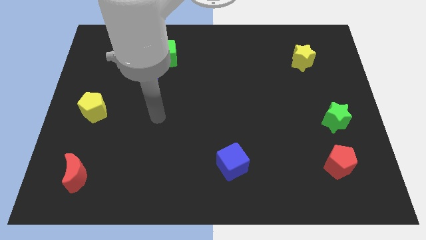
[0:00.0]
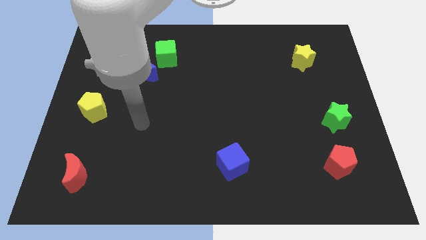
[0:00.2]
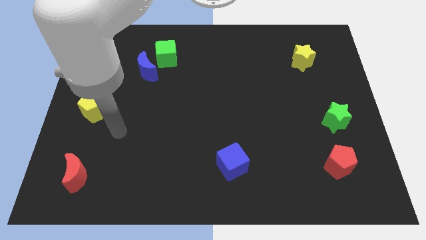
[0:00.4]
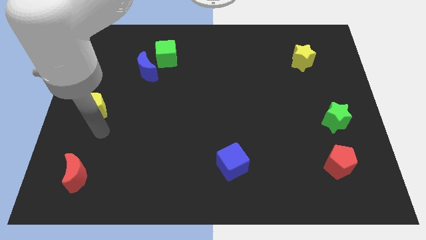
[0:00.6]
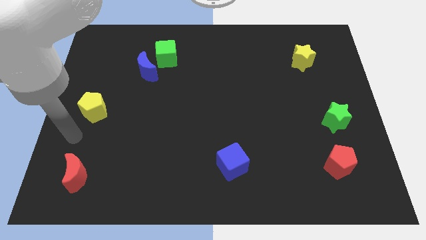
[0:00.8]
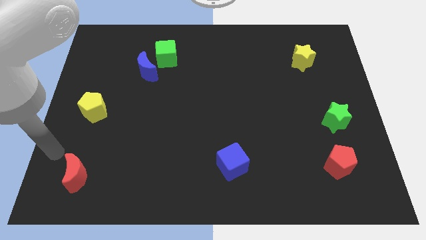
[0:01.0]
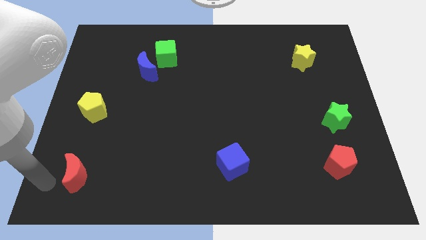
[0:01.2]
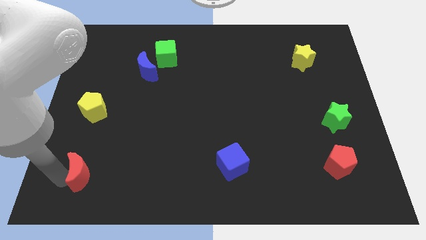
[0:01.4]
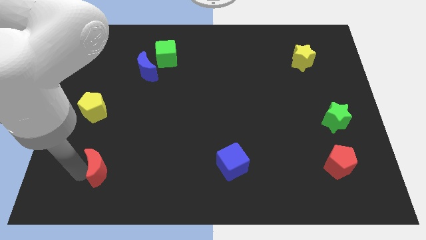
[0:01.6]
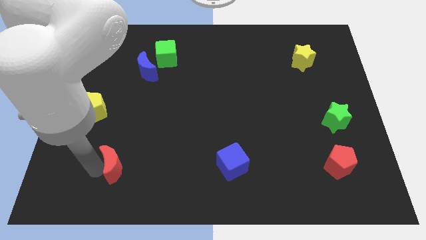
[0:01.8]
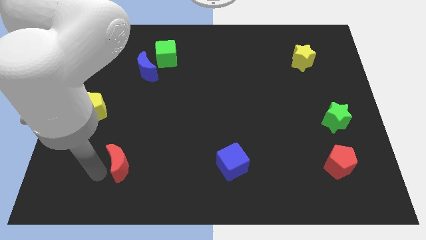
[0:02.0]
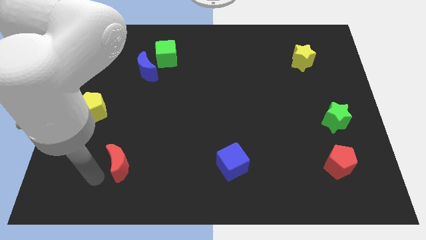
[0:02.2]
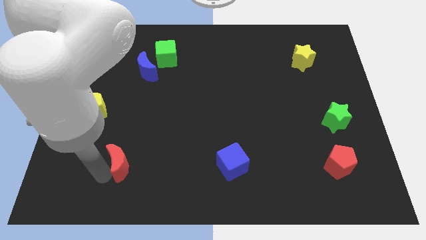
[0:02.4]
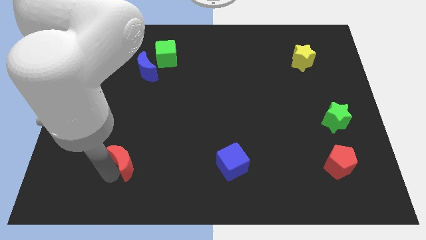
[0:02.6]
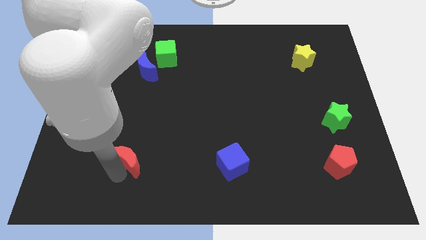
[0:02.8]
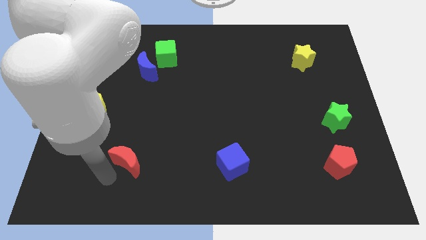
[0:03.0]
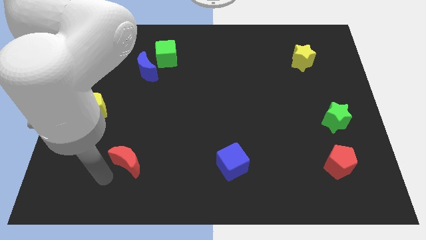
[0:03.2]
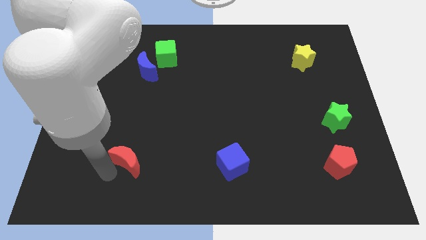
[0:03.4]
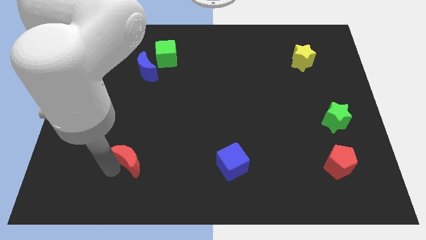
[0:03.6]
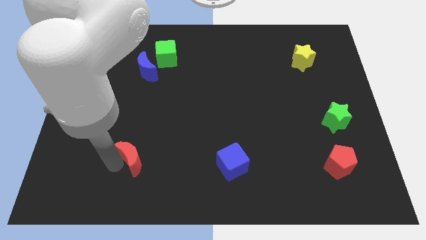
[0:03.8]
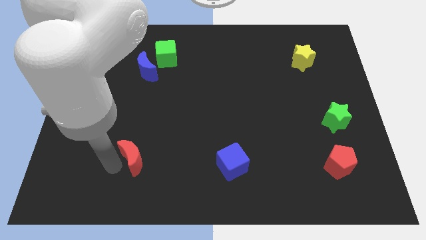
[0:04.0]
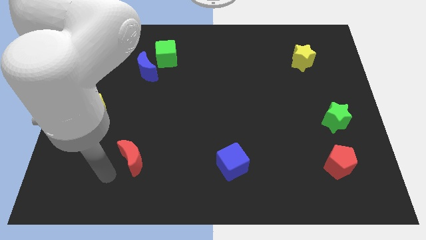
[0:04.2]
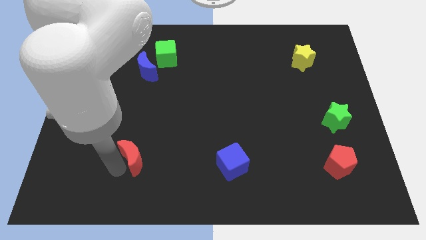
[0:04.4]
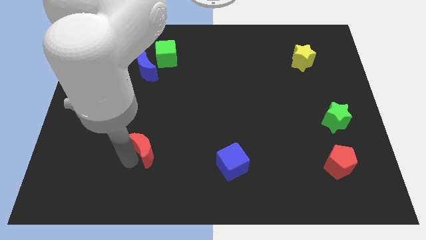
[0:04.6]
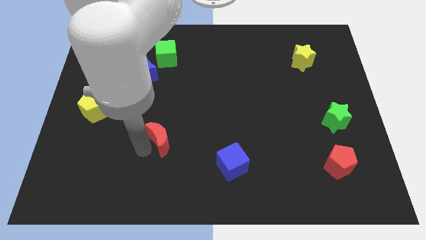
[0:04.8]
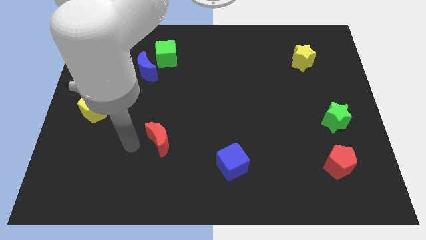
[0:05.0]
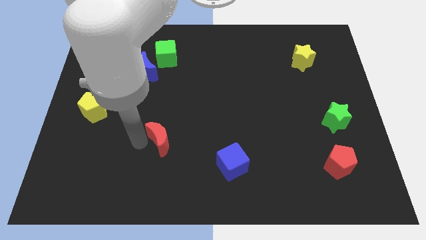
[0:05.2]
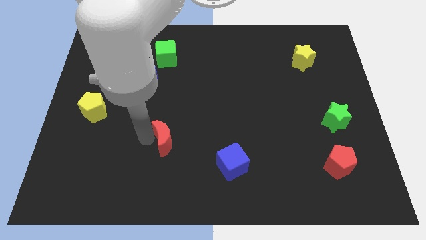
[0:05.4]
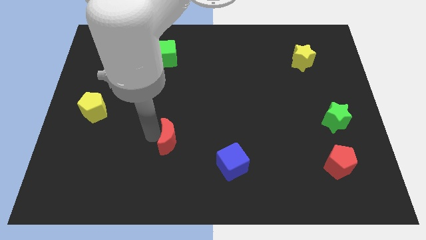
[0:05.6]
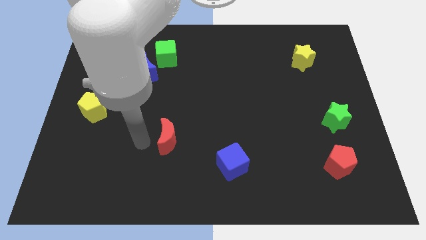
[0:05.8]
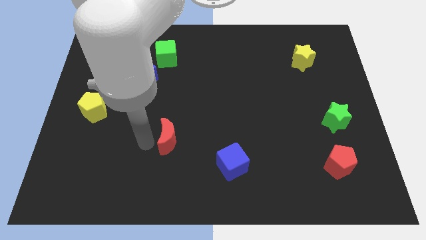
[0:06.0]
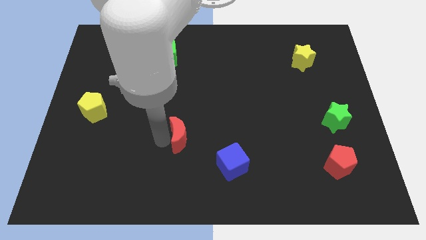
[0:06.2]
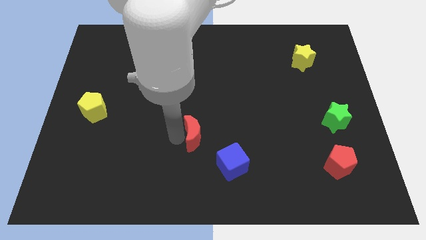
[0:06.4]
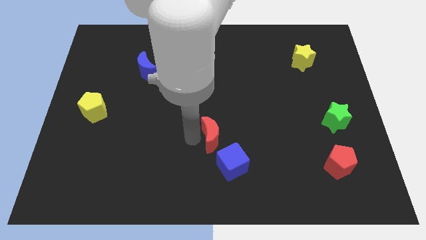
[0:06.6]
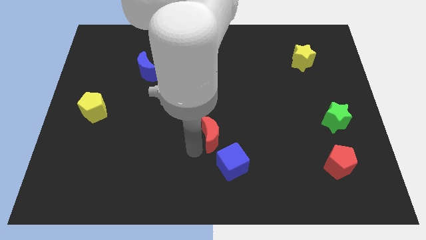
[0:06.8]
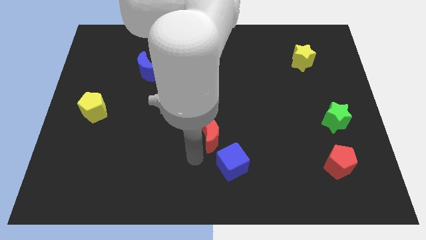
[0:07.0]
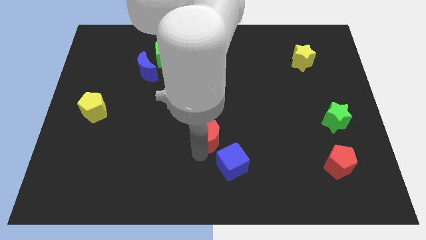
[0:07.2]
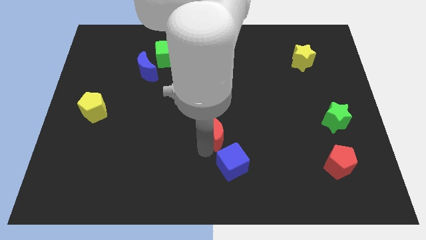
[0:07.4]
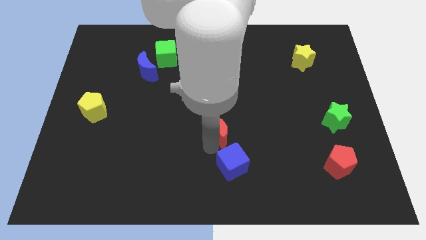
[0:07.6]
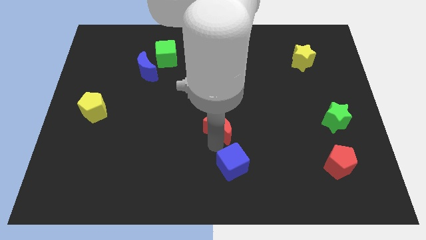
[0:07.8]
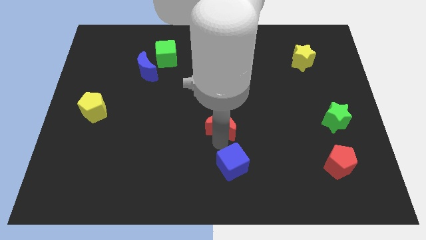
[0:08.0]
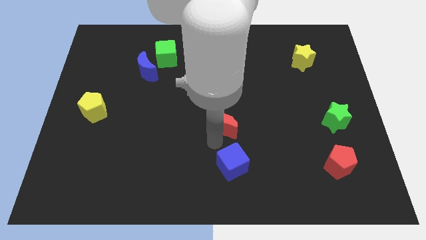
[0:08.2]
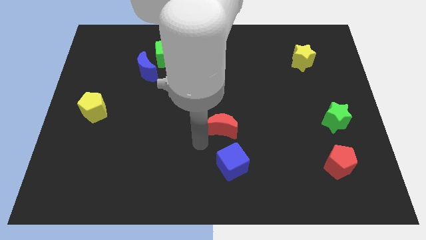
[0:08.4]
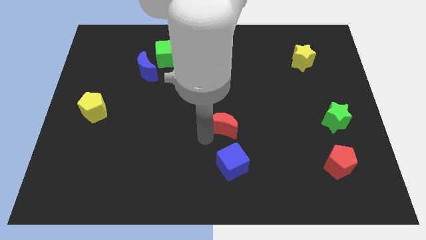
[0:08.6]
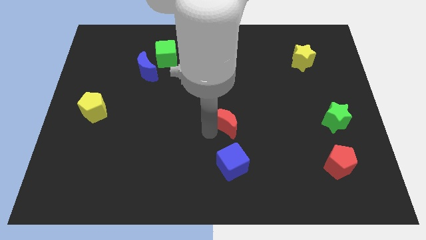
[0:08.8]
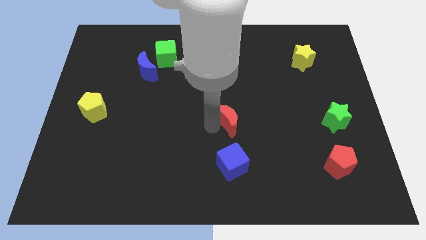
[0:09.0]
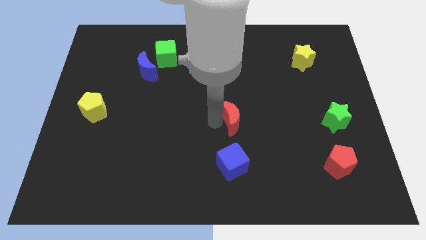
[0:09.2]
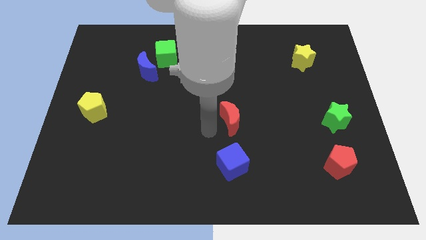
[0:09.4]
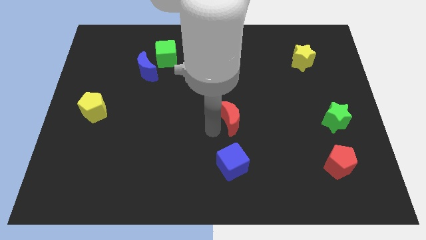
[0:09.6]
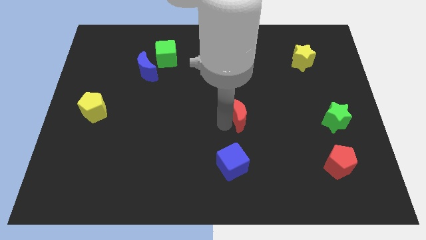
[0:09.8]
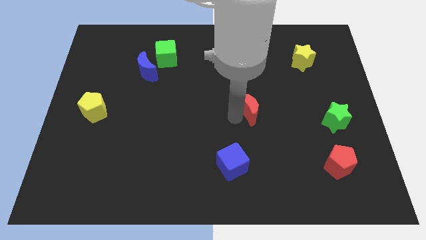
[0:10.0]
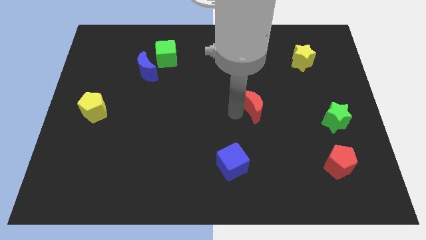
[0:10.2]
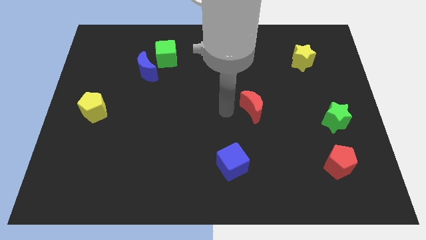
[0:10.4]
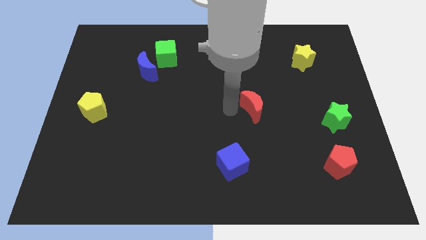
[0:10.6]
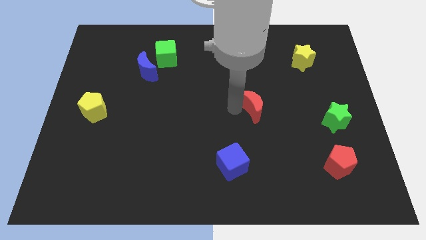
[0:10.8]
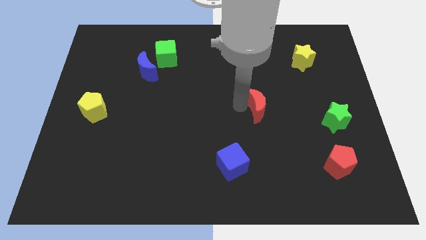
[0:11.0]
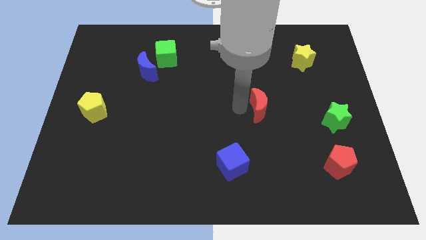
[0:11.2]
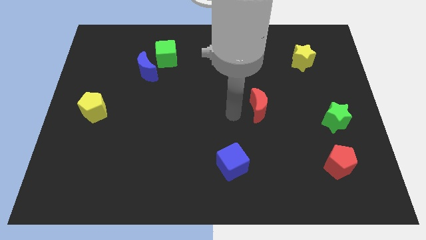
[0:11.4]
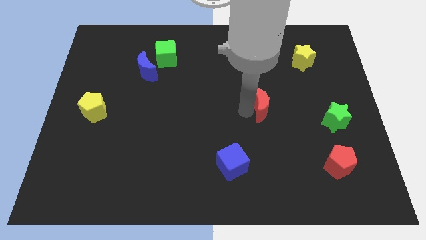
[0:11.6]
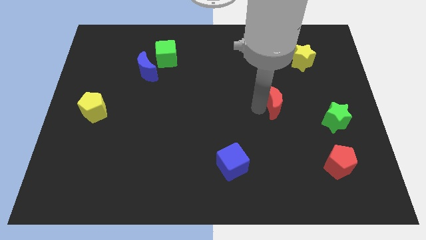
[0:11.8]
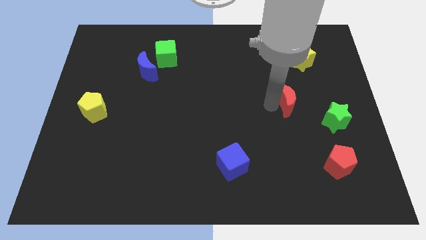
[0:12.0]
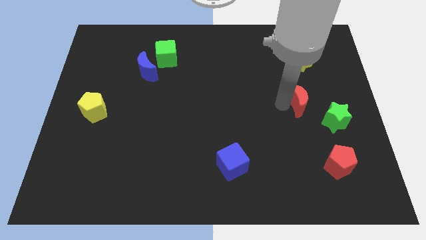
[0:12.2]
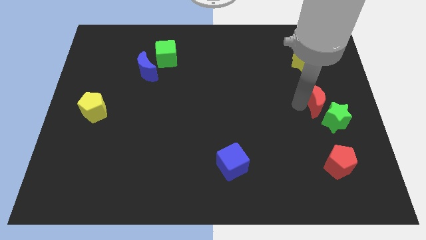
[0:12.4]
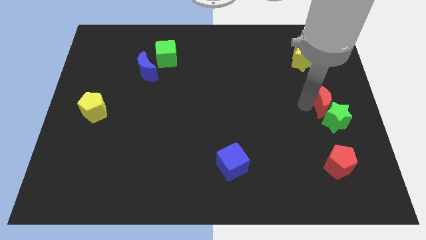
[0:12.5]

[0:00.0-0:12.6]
slide the red moon to the right side of the board

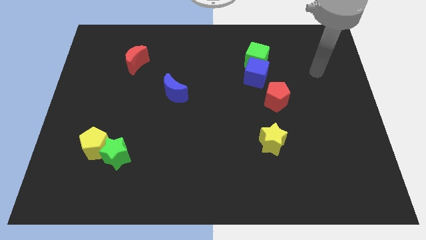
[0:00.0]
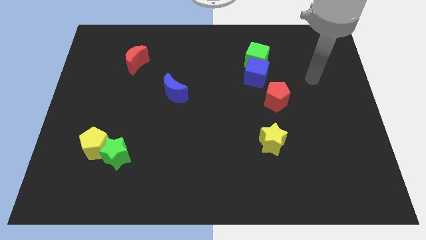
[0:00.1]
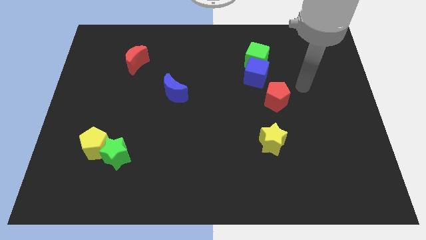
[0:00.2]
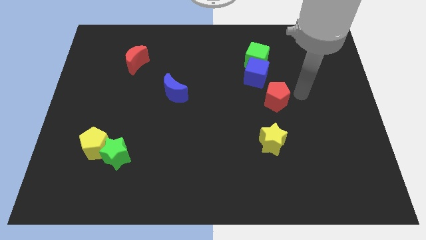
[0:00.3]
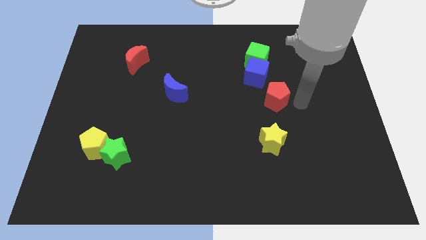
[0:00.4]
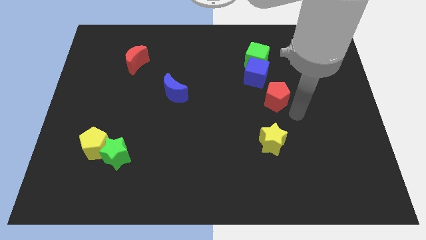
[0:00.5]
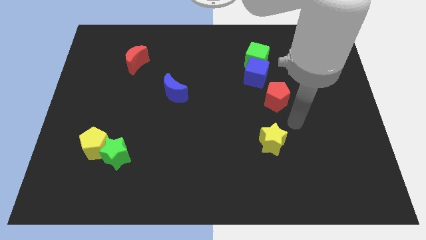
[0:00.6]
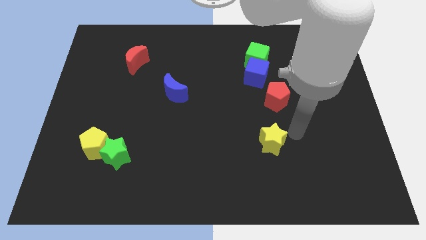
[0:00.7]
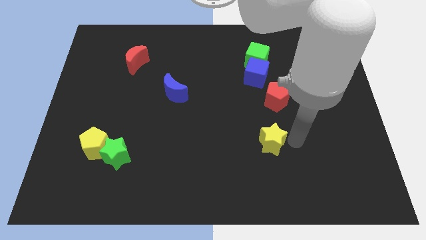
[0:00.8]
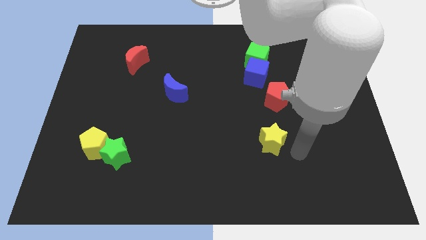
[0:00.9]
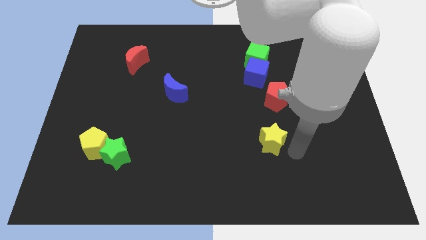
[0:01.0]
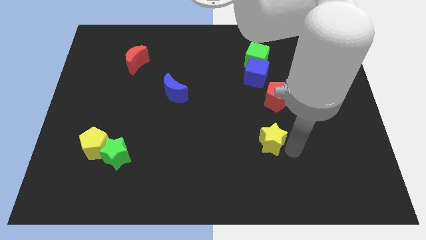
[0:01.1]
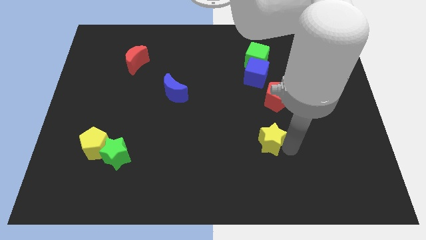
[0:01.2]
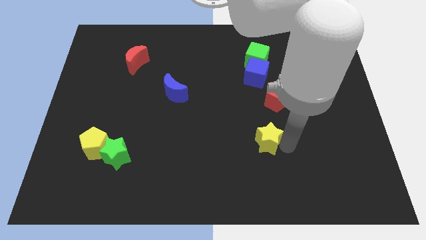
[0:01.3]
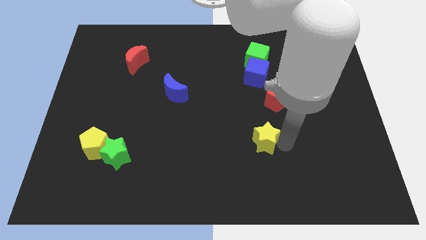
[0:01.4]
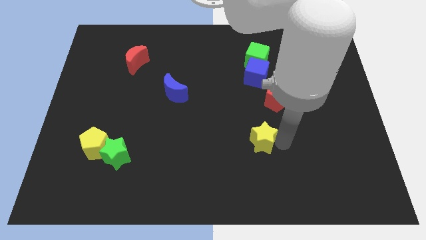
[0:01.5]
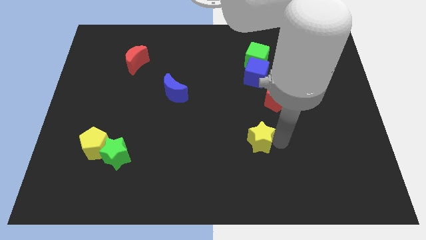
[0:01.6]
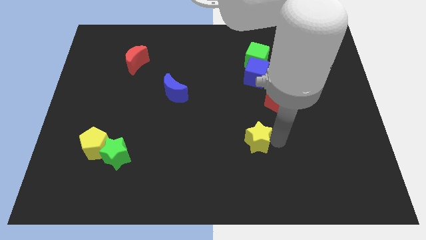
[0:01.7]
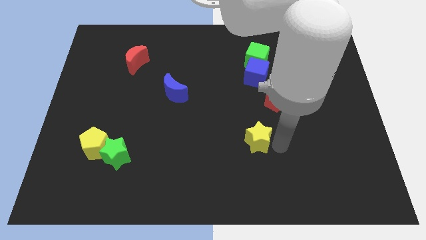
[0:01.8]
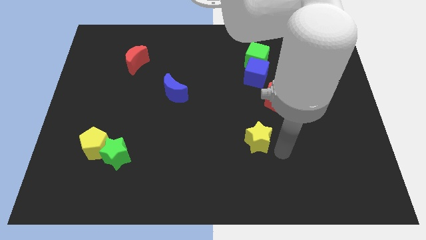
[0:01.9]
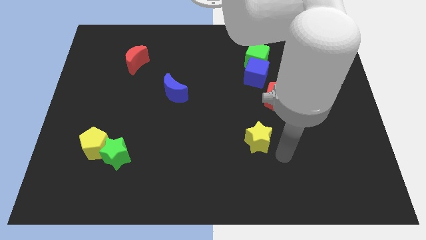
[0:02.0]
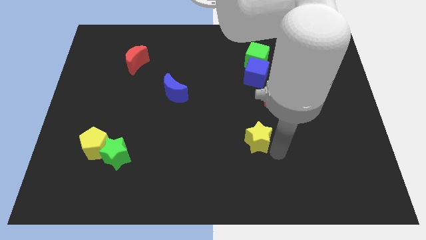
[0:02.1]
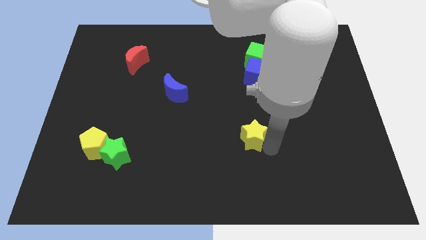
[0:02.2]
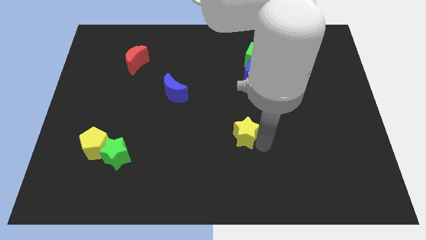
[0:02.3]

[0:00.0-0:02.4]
push the yellow star to the middle
